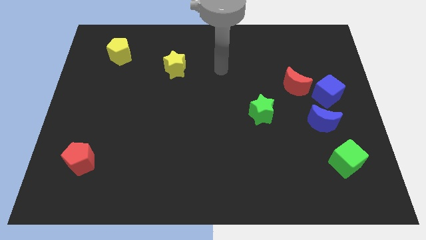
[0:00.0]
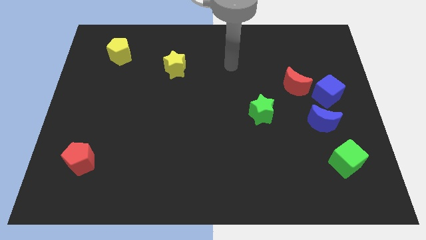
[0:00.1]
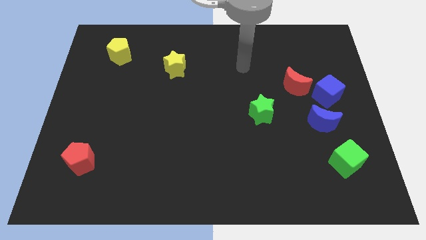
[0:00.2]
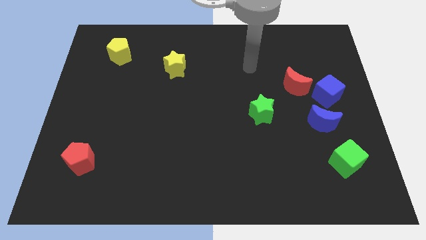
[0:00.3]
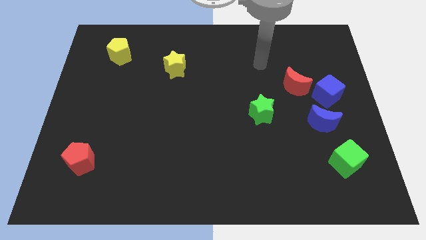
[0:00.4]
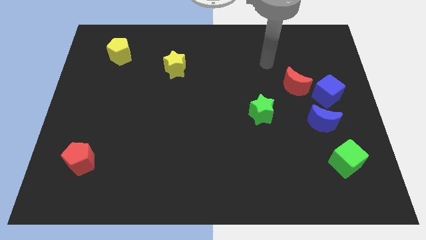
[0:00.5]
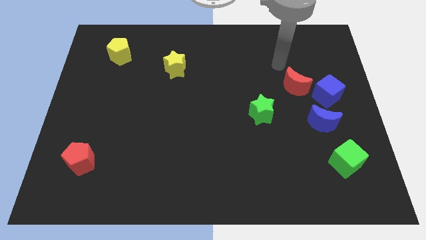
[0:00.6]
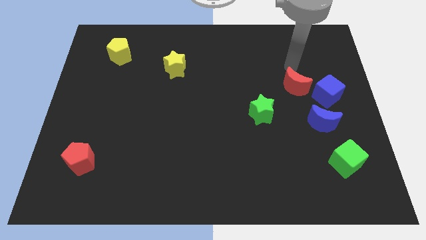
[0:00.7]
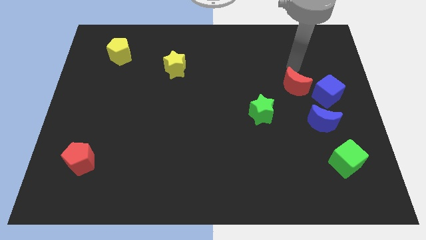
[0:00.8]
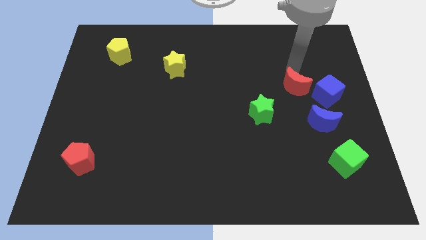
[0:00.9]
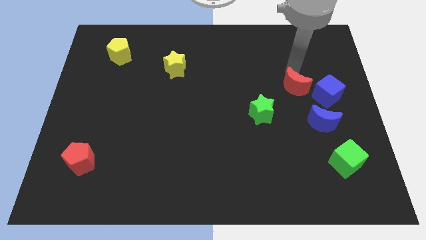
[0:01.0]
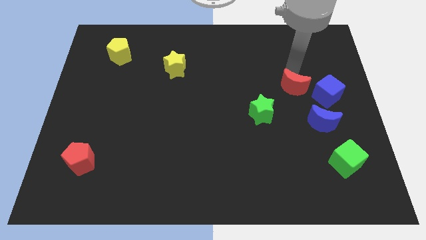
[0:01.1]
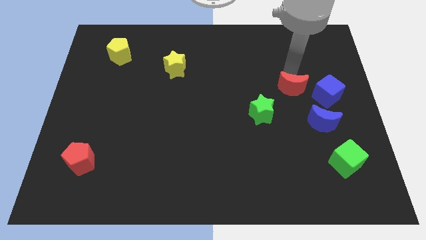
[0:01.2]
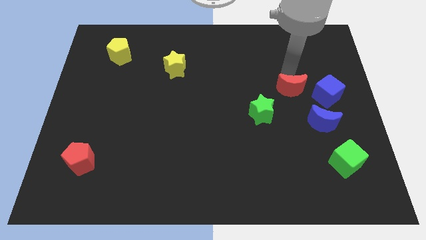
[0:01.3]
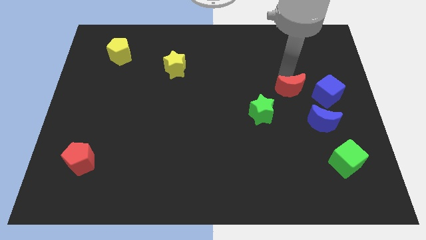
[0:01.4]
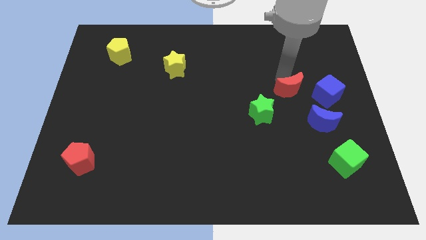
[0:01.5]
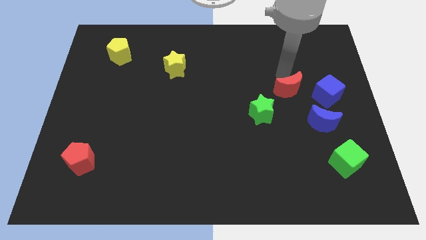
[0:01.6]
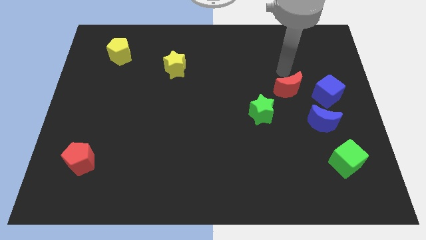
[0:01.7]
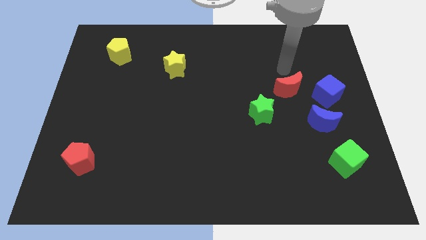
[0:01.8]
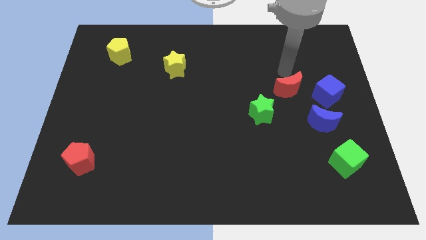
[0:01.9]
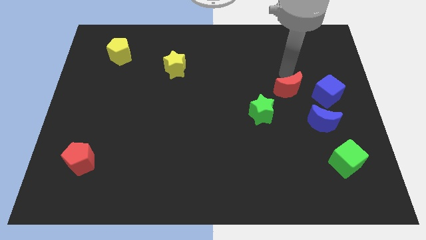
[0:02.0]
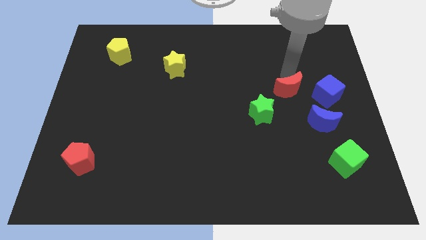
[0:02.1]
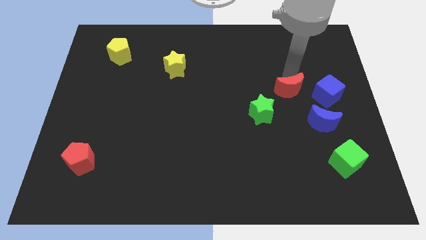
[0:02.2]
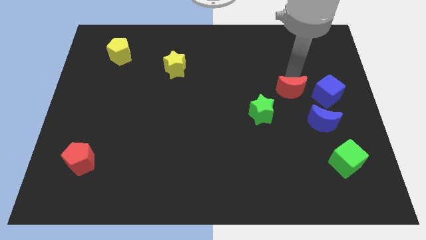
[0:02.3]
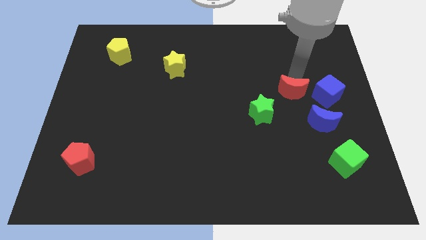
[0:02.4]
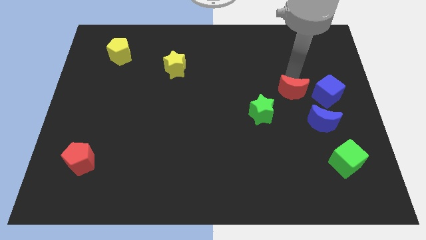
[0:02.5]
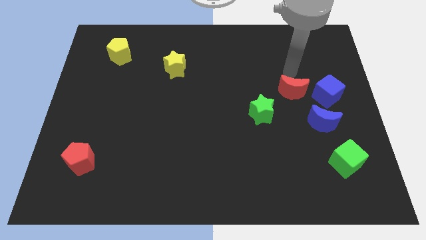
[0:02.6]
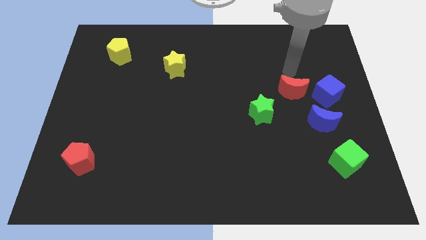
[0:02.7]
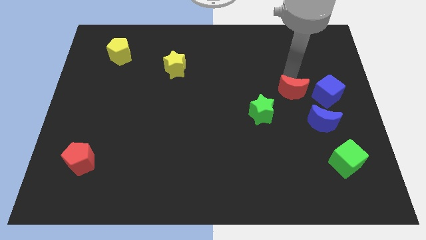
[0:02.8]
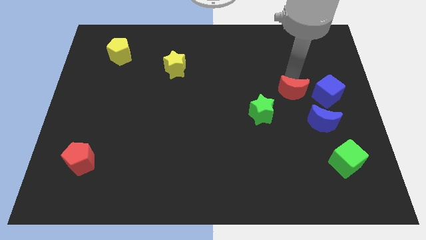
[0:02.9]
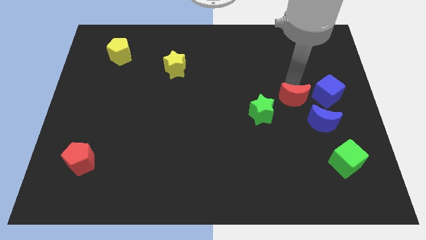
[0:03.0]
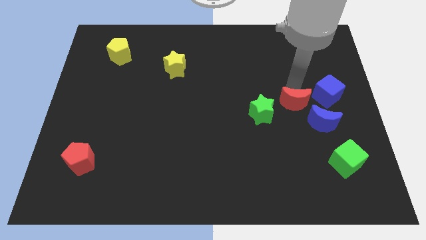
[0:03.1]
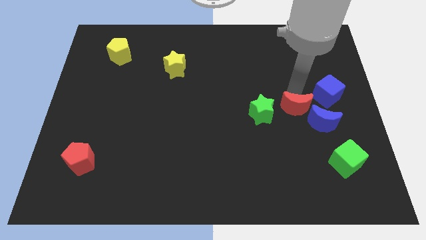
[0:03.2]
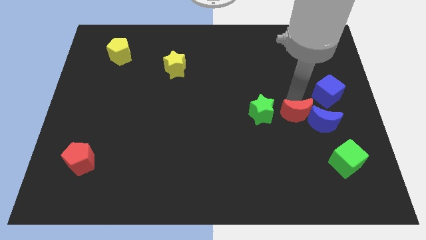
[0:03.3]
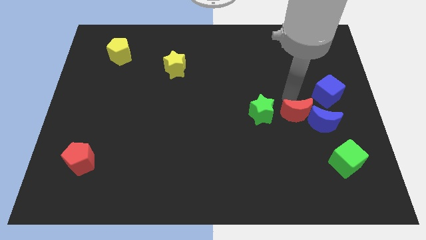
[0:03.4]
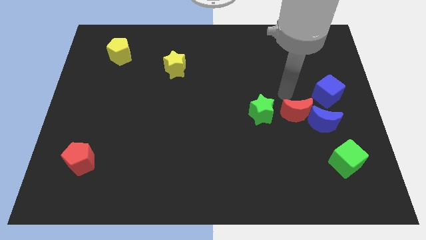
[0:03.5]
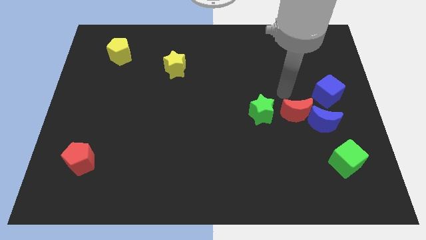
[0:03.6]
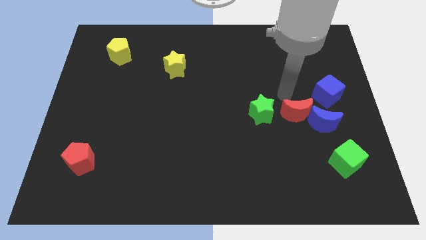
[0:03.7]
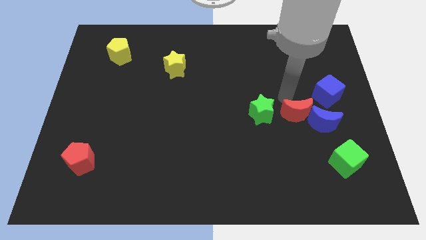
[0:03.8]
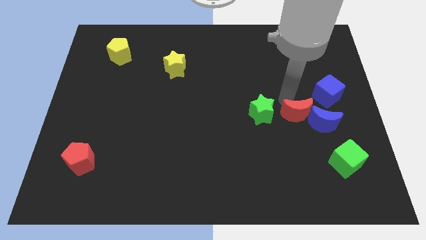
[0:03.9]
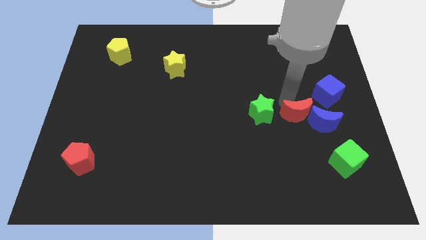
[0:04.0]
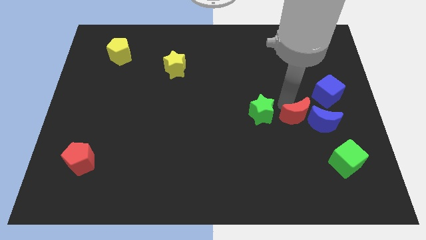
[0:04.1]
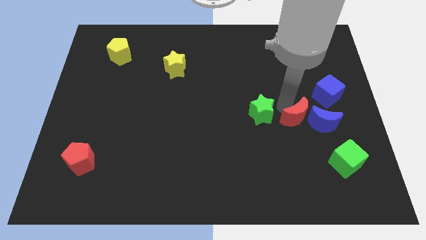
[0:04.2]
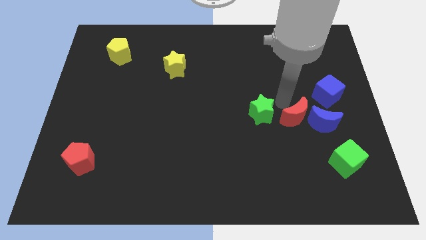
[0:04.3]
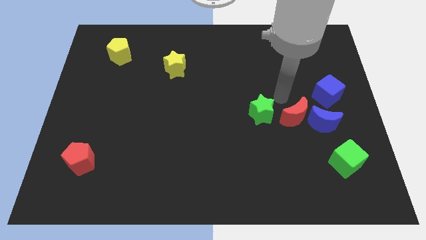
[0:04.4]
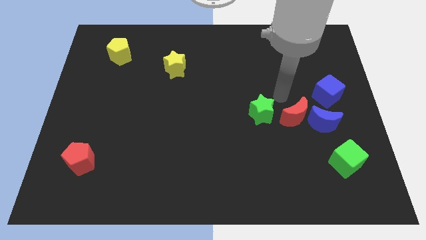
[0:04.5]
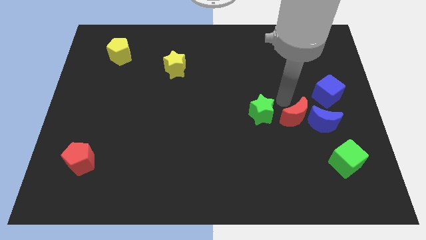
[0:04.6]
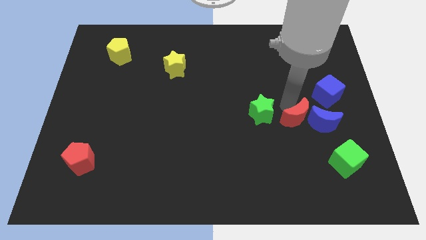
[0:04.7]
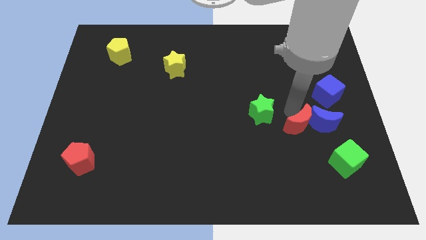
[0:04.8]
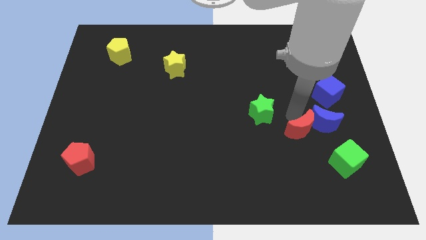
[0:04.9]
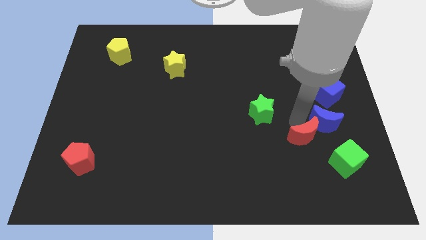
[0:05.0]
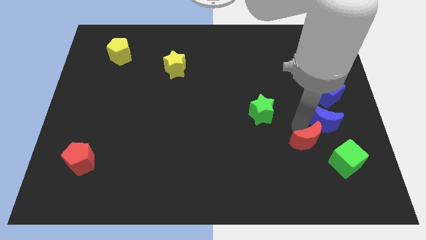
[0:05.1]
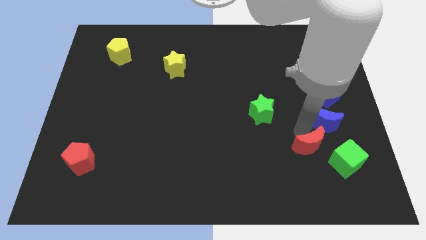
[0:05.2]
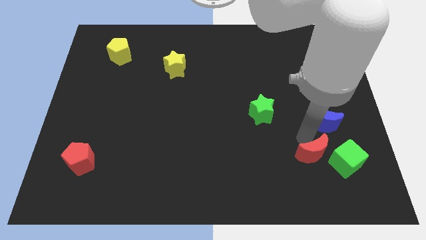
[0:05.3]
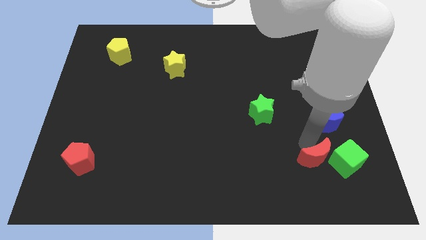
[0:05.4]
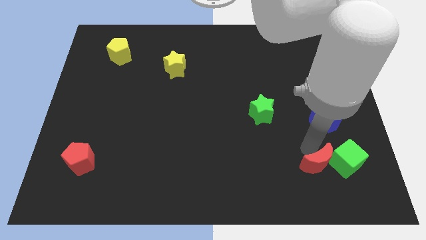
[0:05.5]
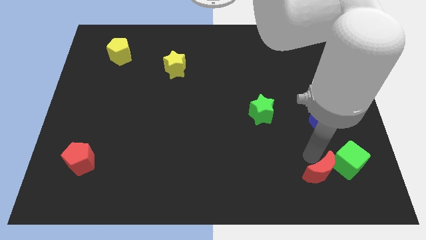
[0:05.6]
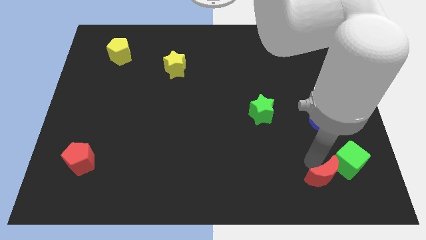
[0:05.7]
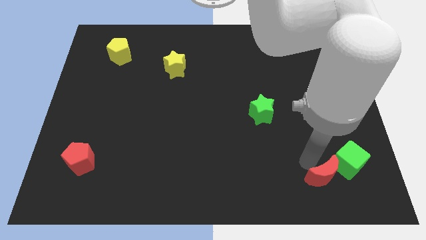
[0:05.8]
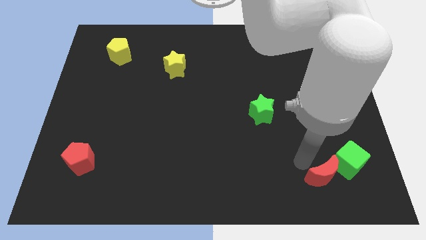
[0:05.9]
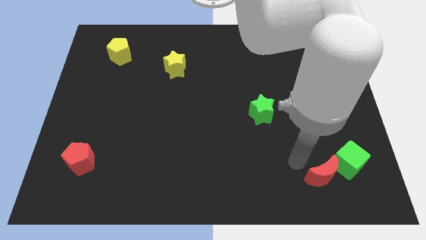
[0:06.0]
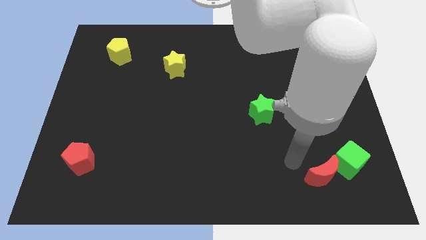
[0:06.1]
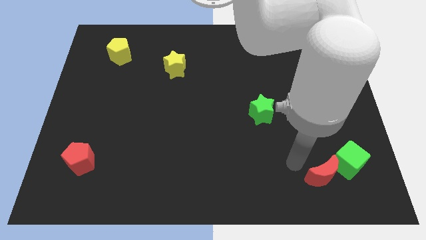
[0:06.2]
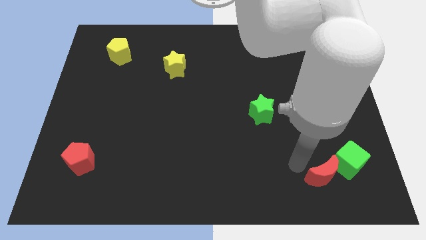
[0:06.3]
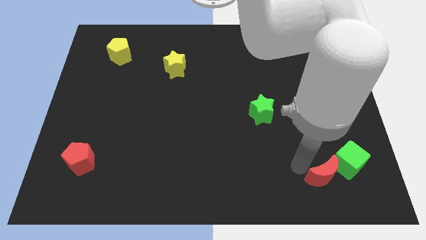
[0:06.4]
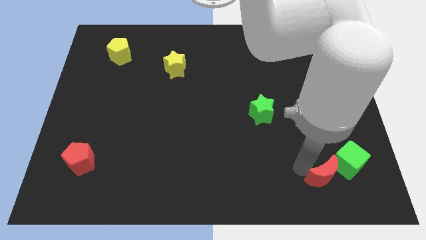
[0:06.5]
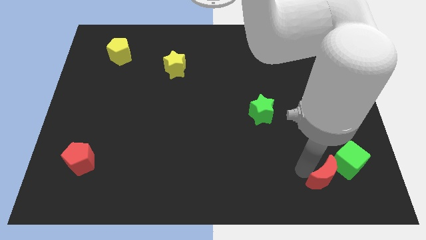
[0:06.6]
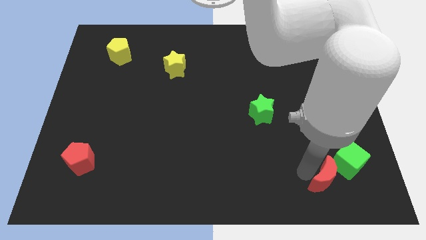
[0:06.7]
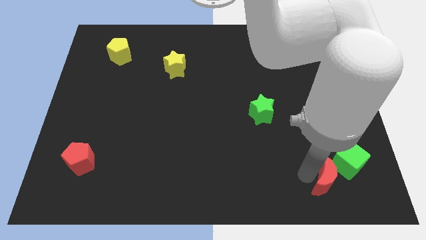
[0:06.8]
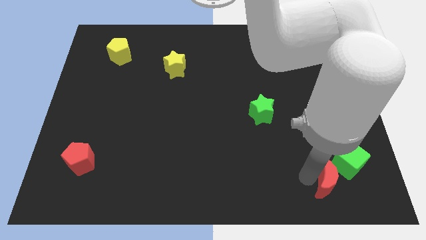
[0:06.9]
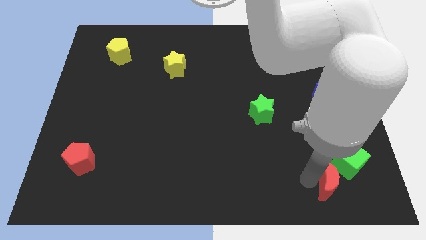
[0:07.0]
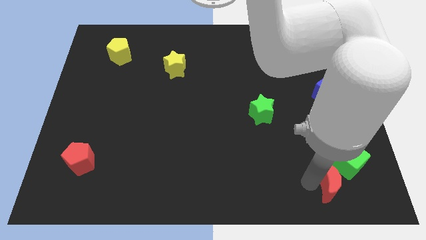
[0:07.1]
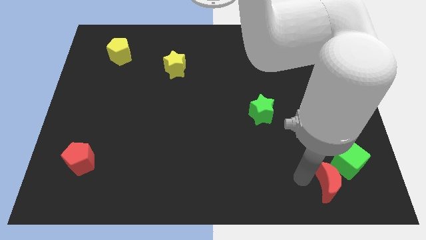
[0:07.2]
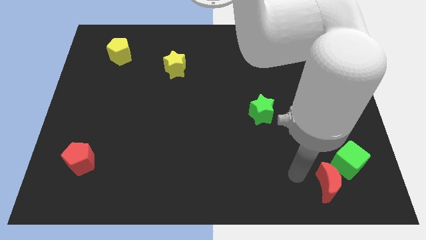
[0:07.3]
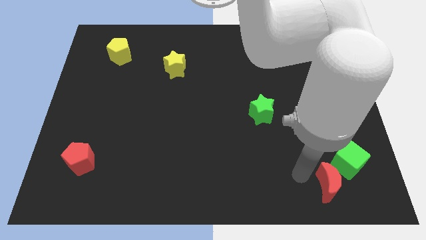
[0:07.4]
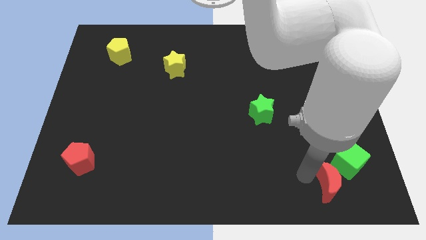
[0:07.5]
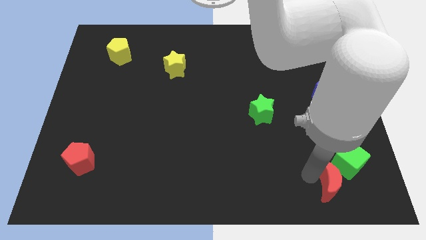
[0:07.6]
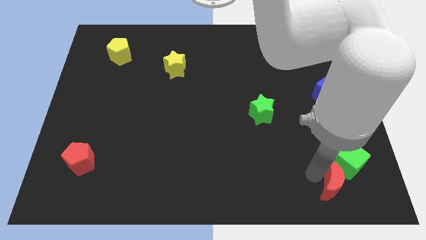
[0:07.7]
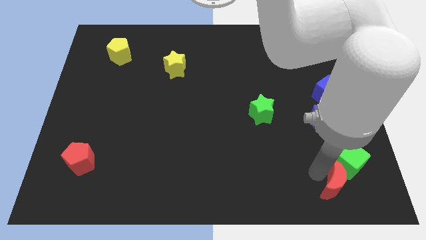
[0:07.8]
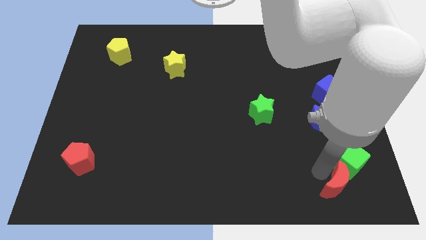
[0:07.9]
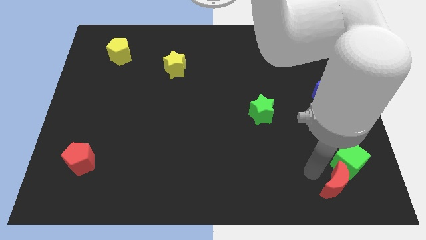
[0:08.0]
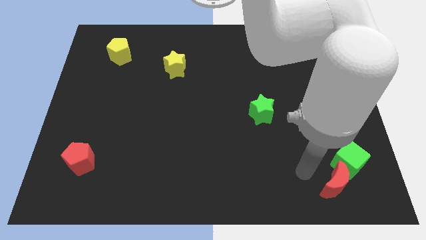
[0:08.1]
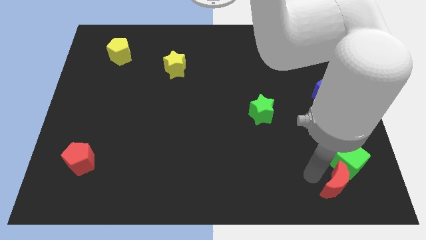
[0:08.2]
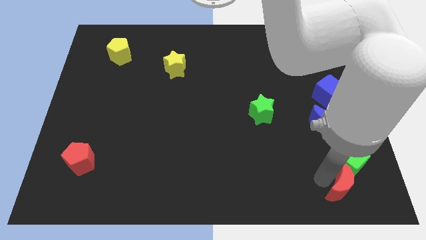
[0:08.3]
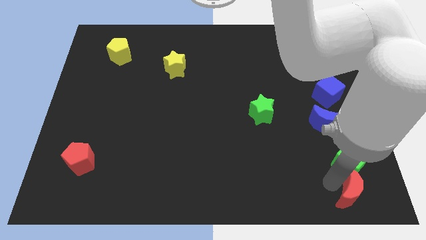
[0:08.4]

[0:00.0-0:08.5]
push the red moon to the bottom right of the board
